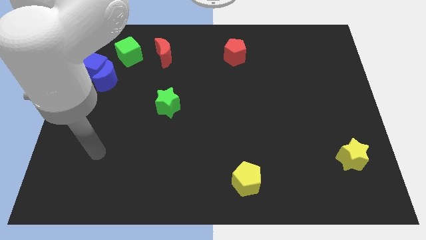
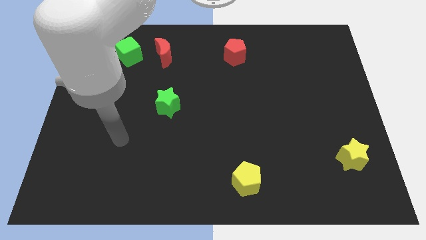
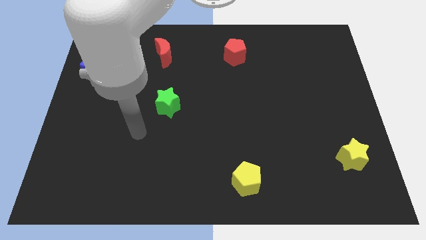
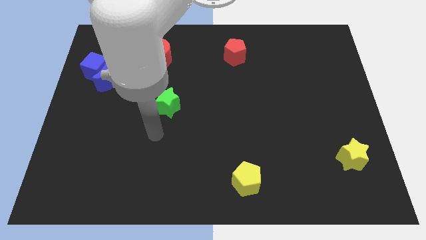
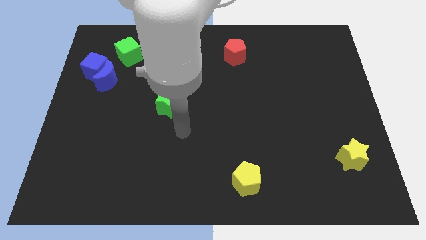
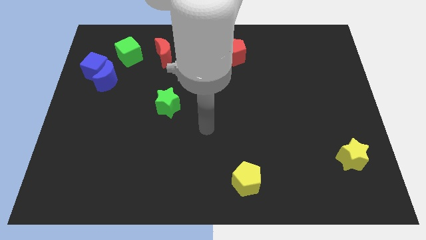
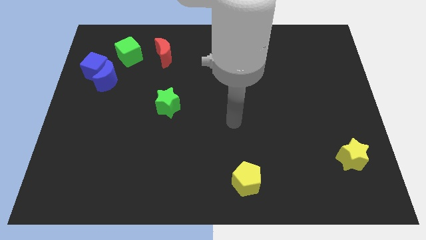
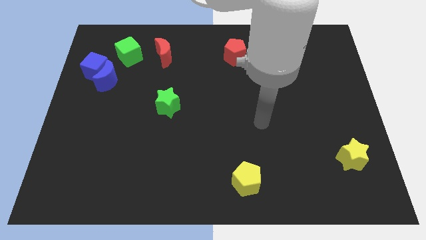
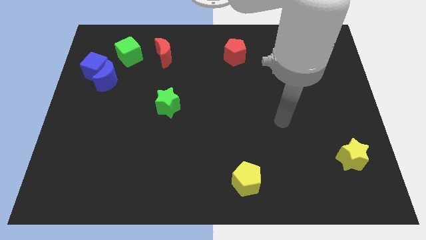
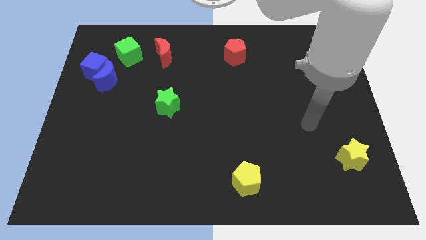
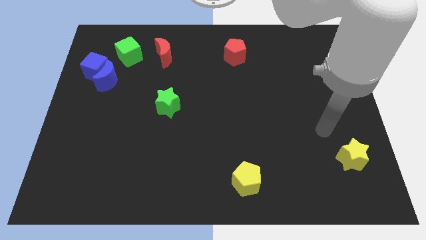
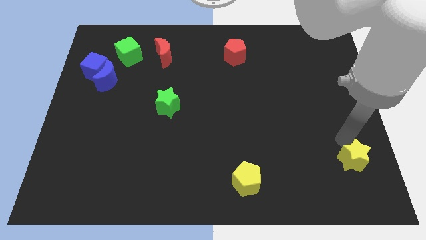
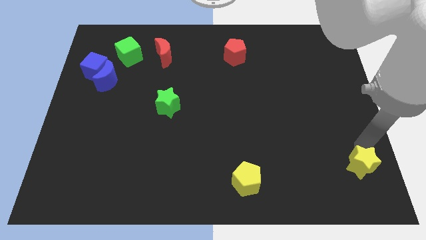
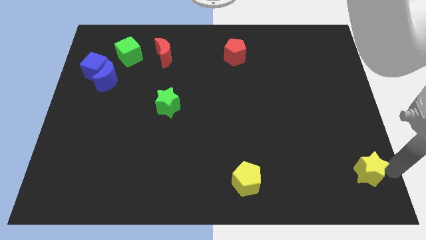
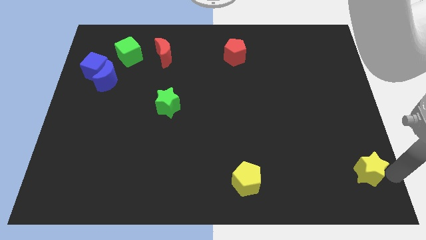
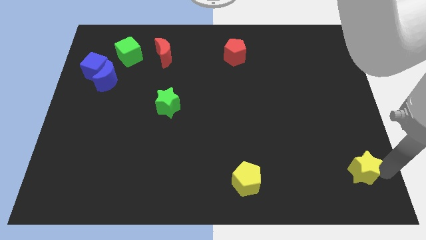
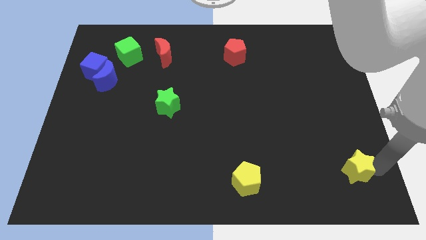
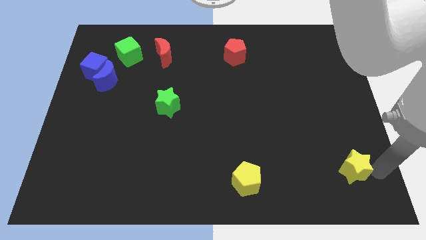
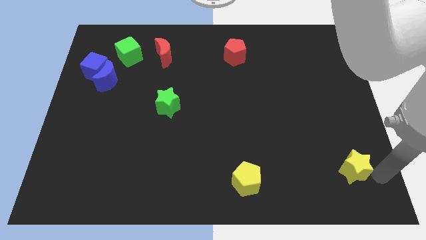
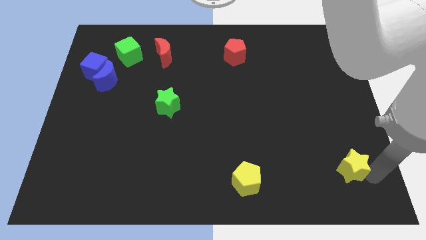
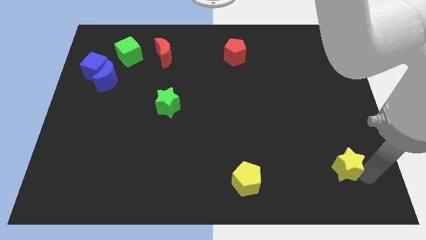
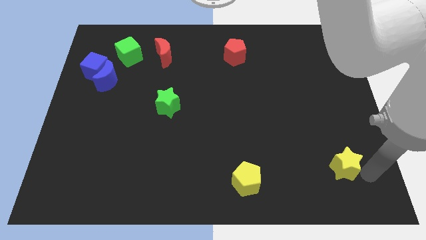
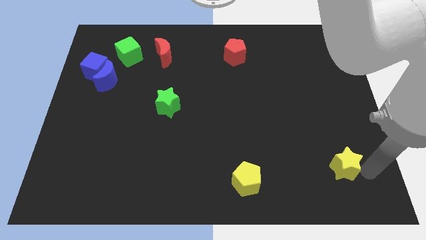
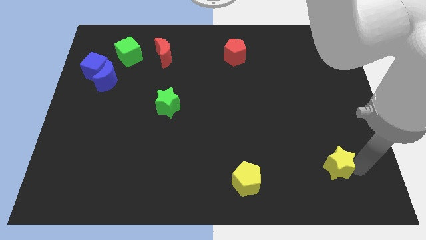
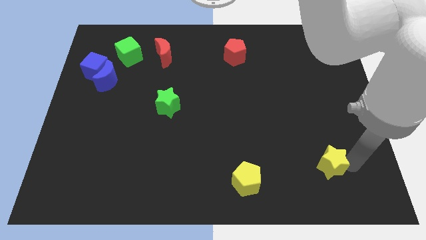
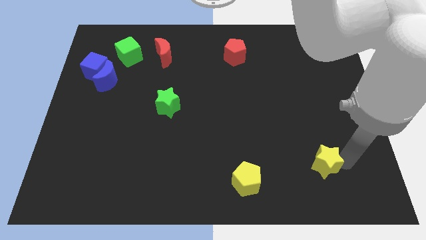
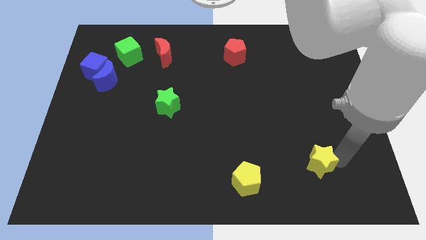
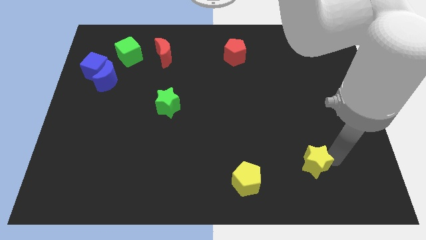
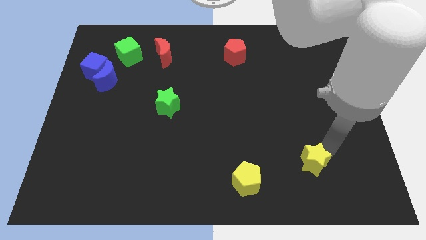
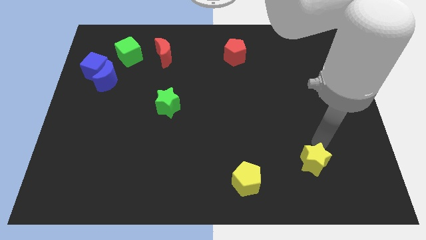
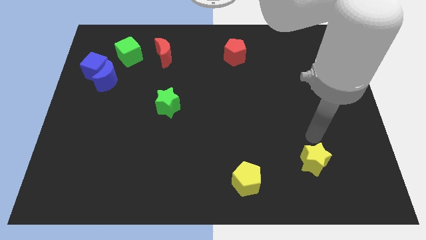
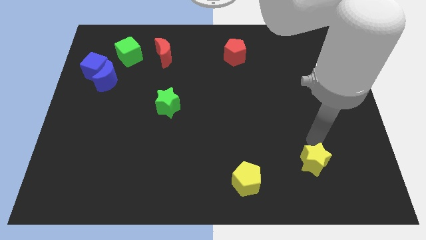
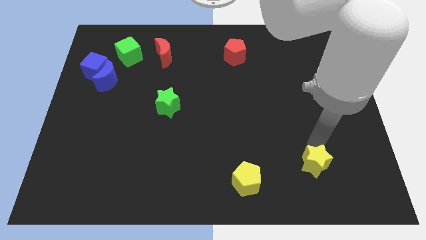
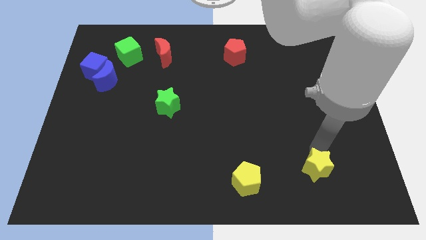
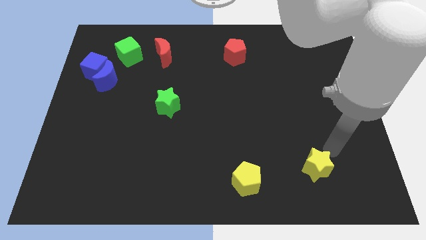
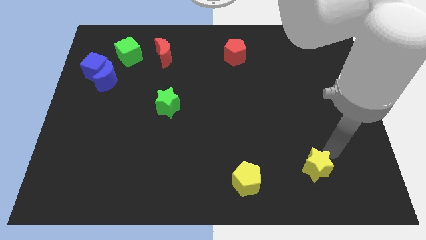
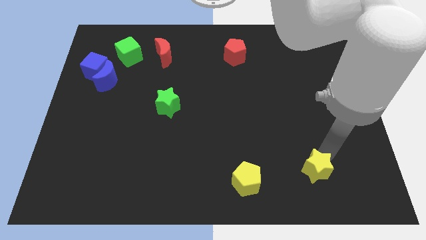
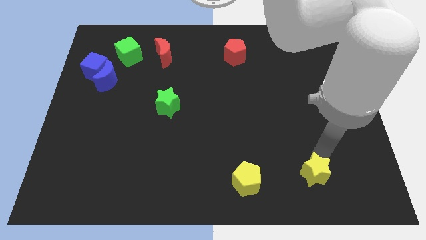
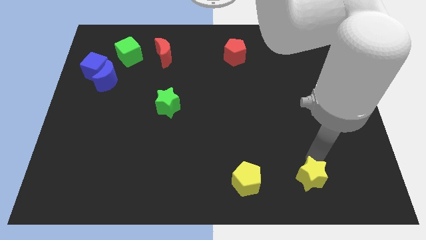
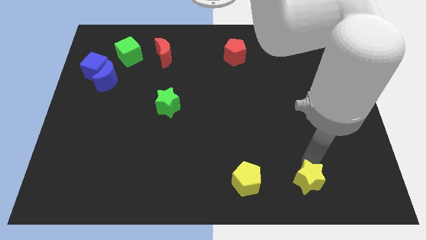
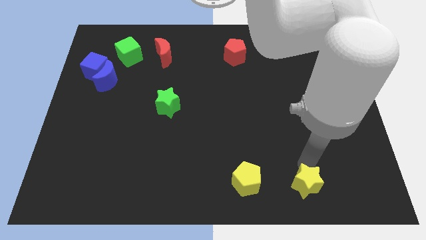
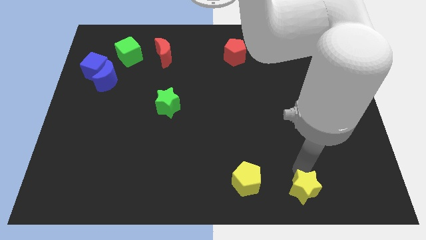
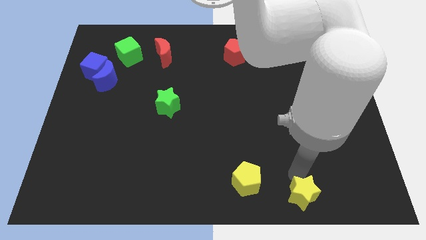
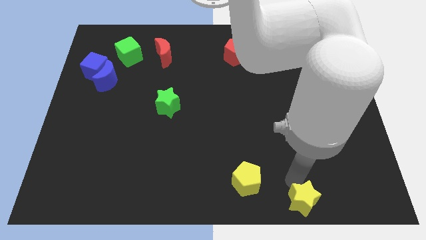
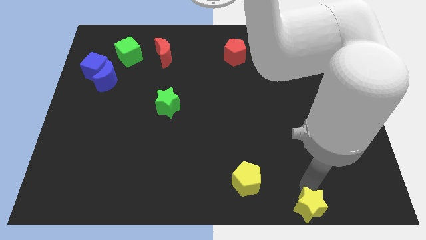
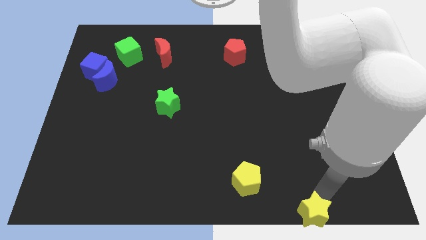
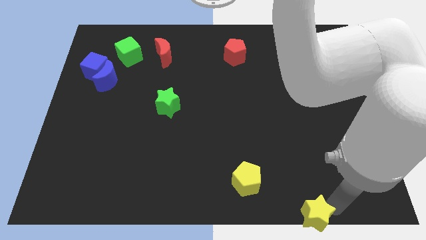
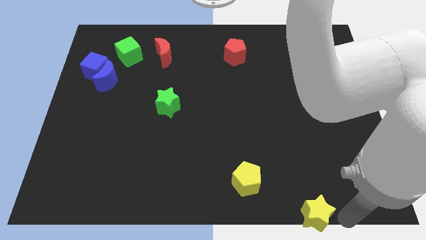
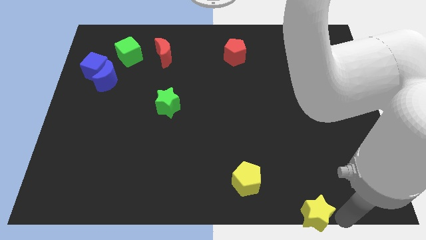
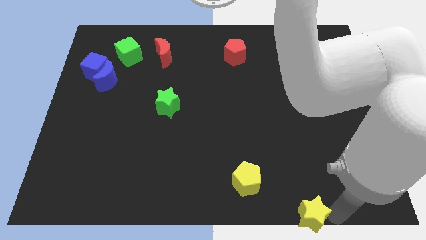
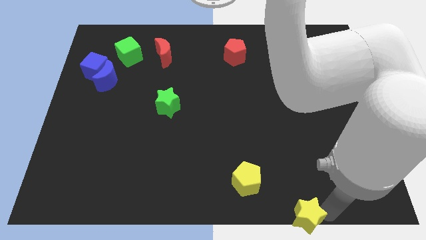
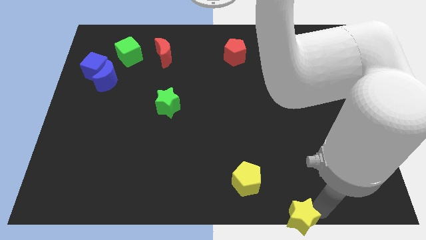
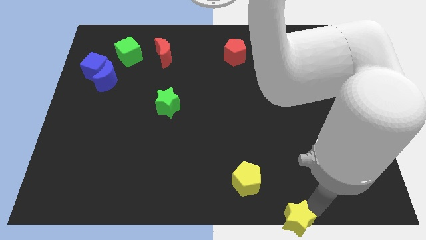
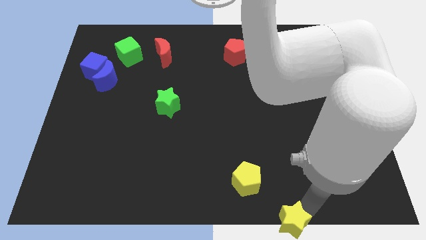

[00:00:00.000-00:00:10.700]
slide the yellow star to the bottom side
